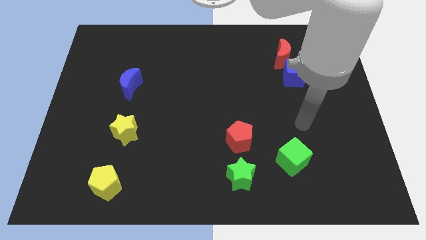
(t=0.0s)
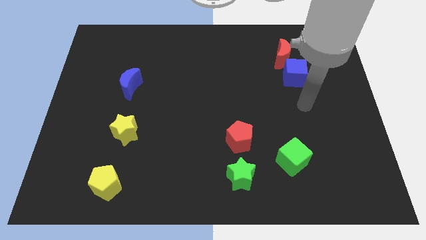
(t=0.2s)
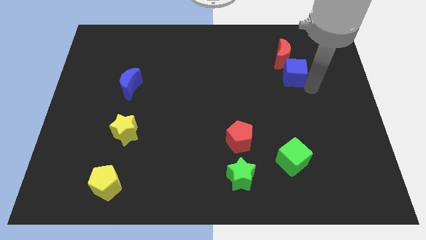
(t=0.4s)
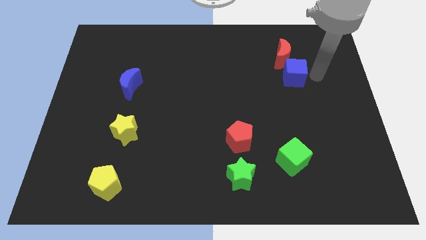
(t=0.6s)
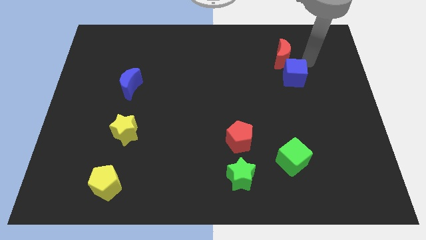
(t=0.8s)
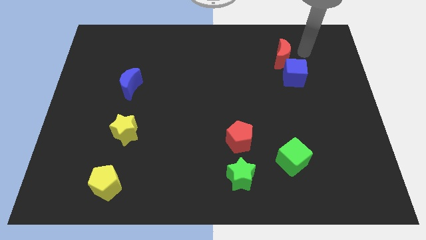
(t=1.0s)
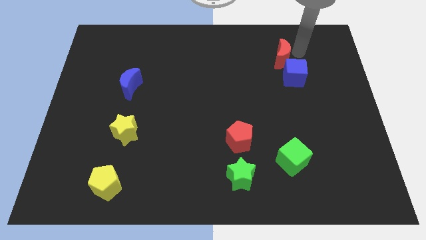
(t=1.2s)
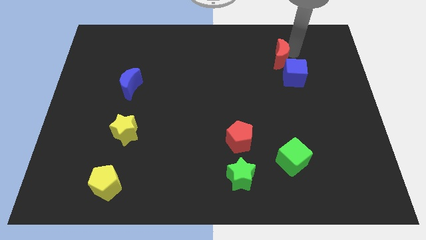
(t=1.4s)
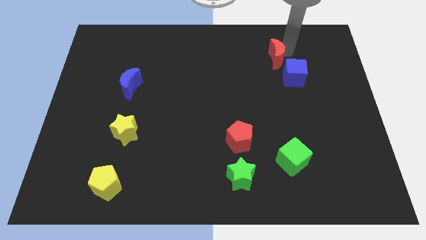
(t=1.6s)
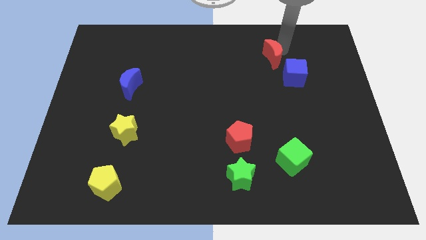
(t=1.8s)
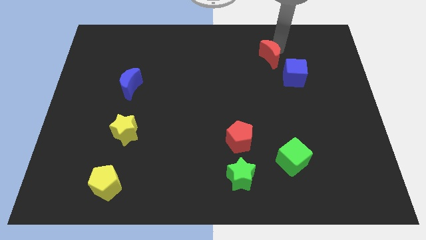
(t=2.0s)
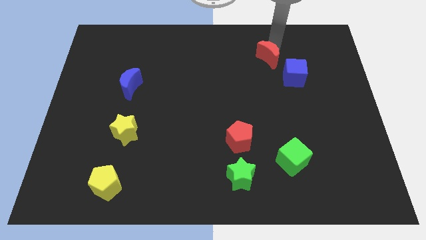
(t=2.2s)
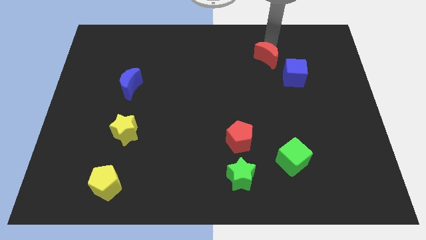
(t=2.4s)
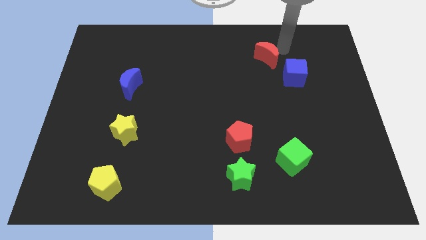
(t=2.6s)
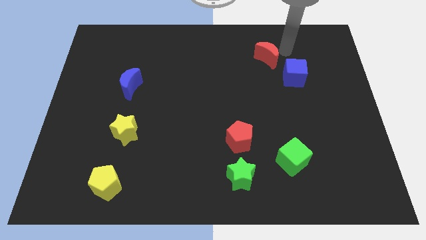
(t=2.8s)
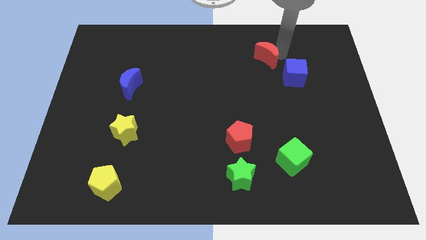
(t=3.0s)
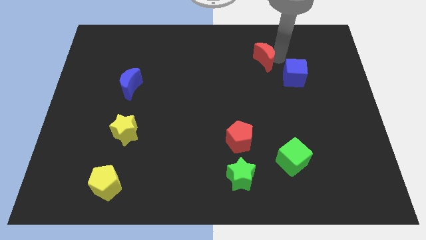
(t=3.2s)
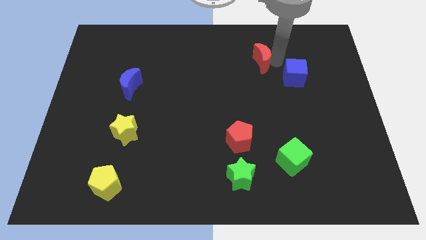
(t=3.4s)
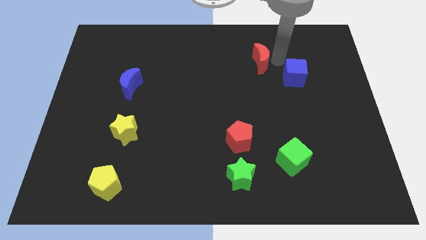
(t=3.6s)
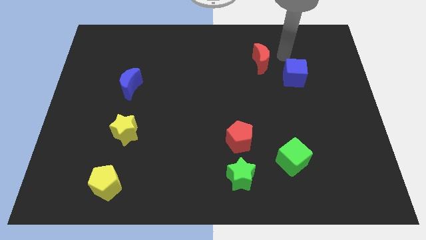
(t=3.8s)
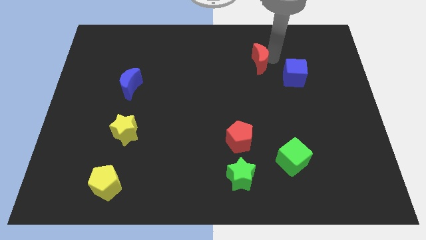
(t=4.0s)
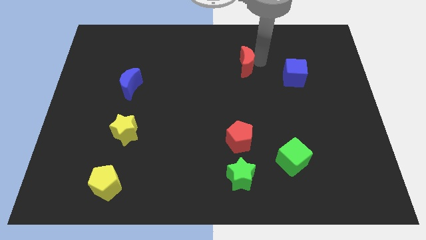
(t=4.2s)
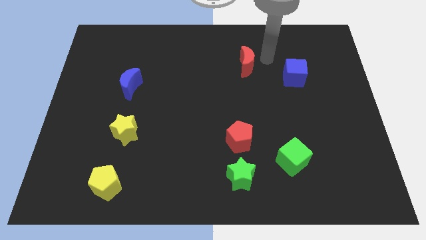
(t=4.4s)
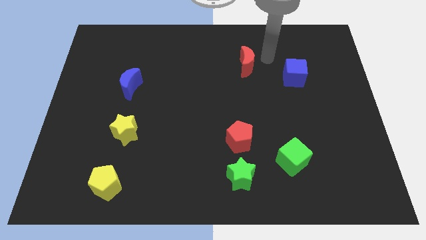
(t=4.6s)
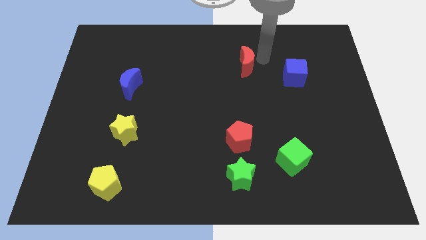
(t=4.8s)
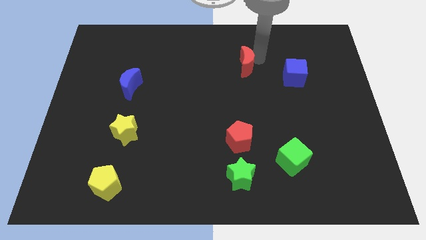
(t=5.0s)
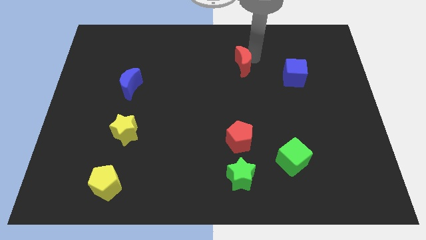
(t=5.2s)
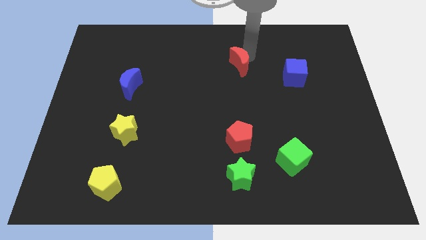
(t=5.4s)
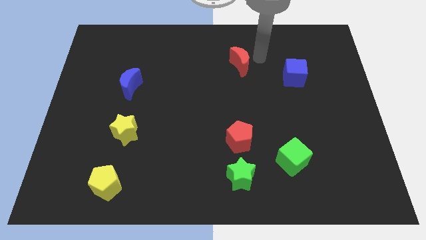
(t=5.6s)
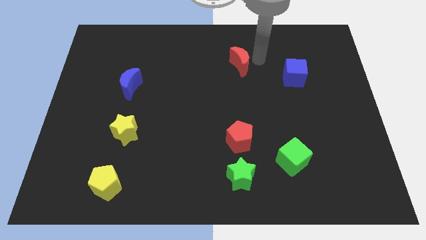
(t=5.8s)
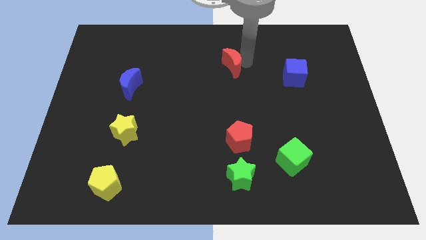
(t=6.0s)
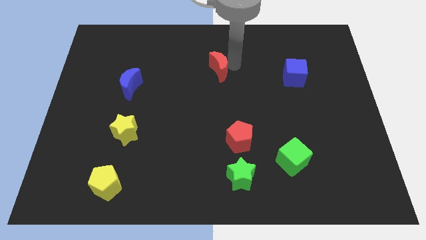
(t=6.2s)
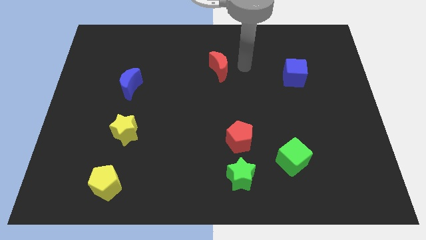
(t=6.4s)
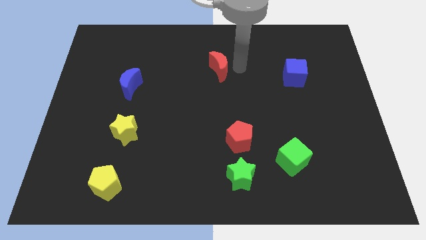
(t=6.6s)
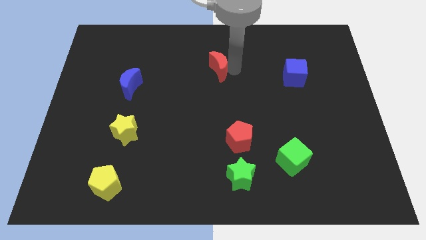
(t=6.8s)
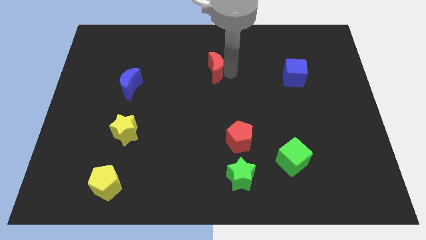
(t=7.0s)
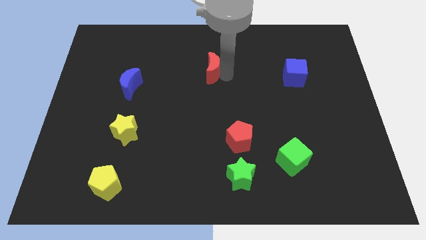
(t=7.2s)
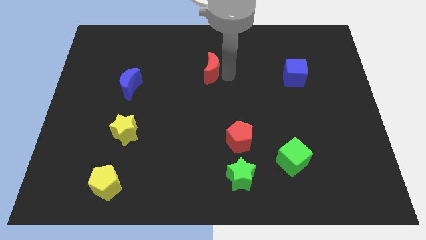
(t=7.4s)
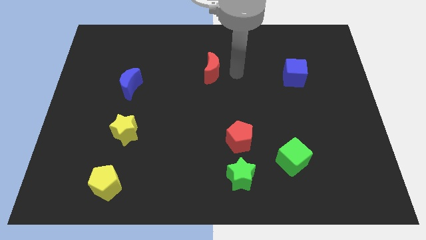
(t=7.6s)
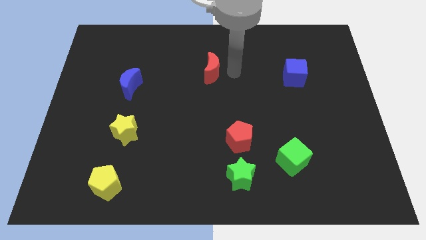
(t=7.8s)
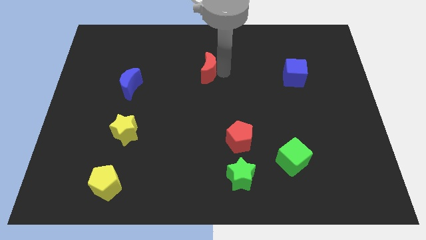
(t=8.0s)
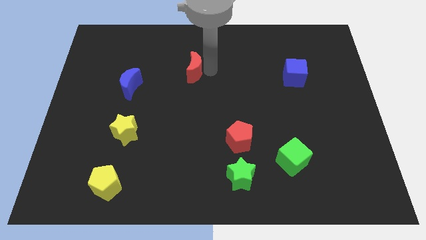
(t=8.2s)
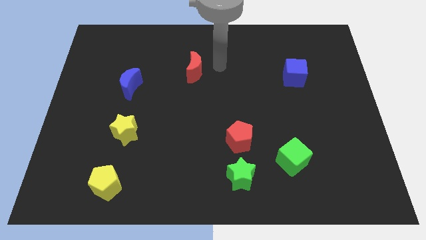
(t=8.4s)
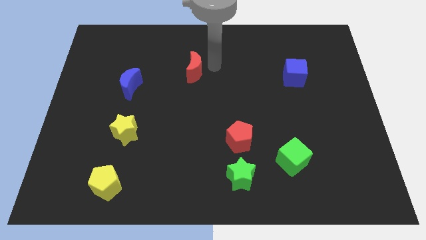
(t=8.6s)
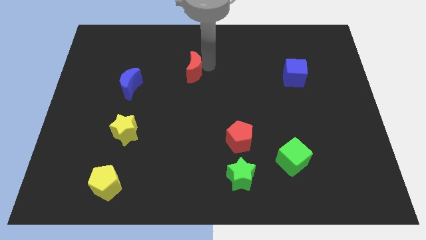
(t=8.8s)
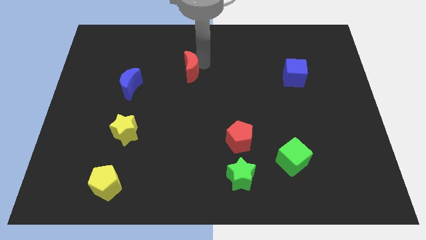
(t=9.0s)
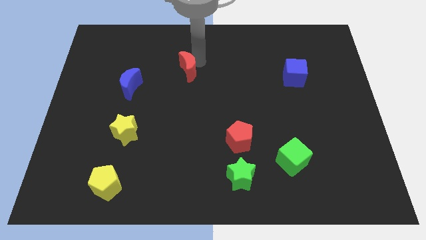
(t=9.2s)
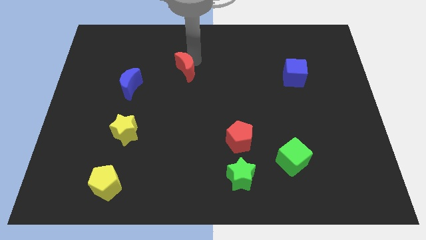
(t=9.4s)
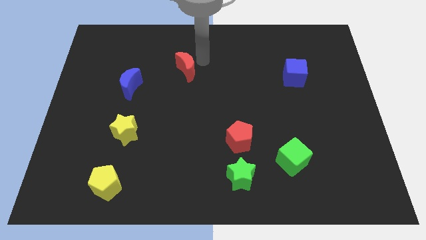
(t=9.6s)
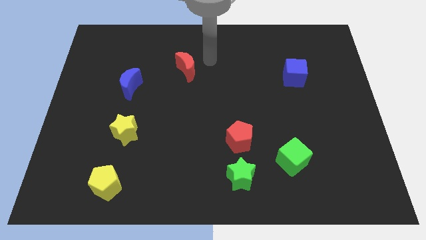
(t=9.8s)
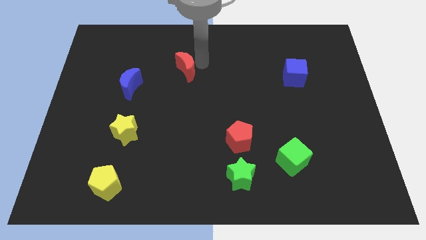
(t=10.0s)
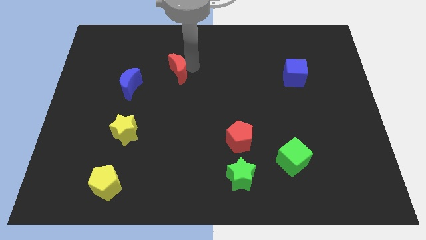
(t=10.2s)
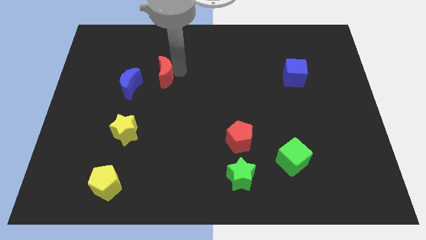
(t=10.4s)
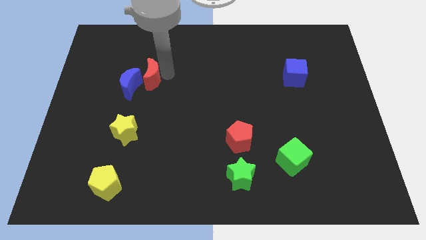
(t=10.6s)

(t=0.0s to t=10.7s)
push the red moon to the blue moon

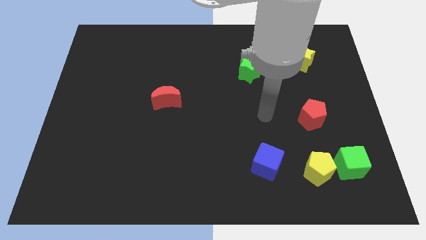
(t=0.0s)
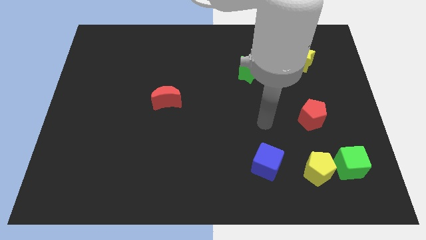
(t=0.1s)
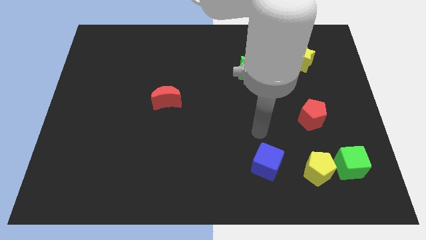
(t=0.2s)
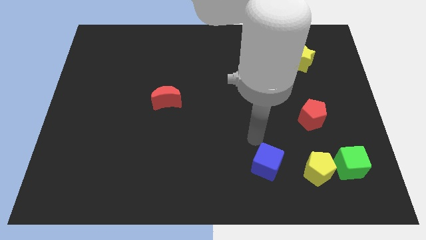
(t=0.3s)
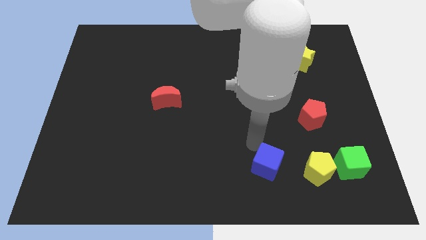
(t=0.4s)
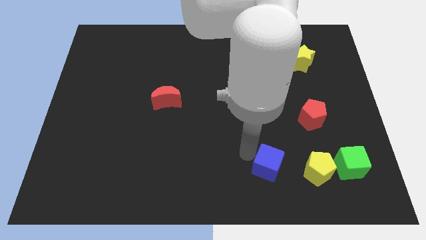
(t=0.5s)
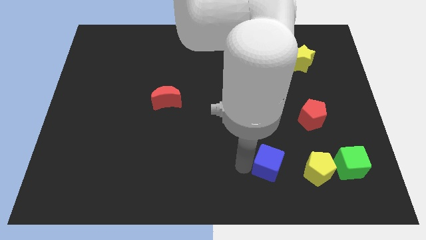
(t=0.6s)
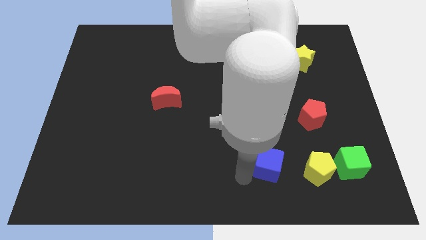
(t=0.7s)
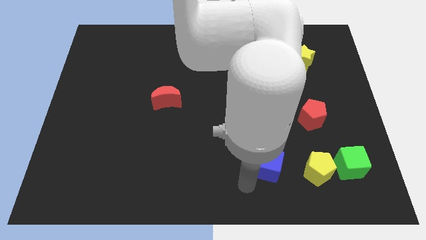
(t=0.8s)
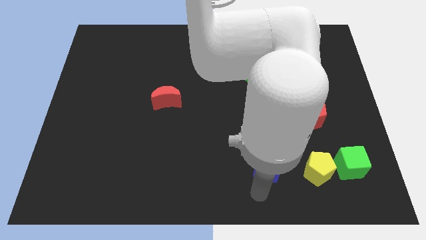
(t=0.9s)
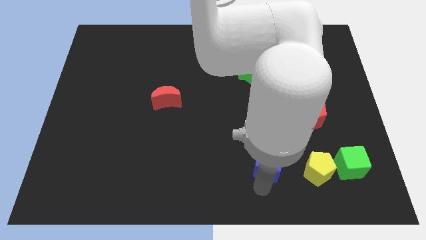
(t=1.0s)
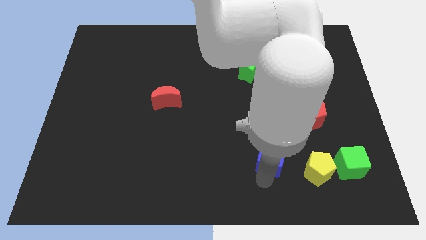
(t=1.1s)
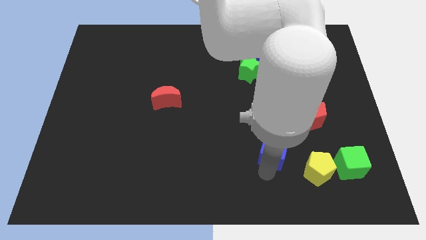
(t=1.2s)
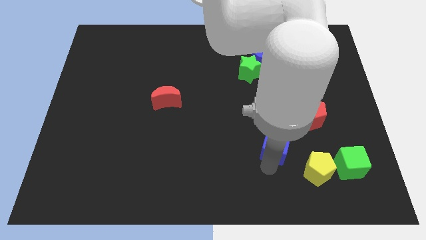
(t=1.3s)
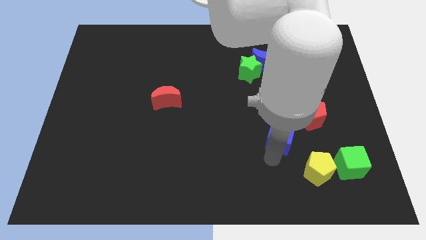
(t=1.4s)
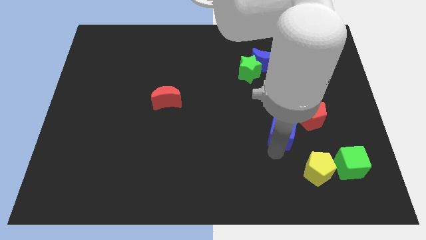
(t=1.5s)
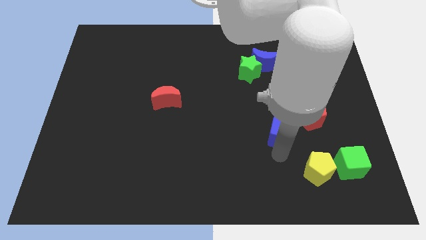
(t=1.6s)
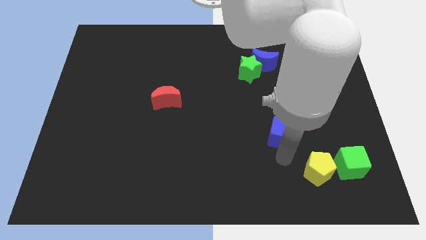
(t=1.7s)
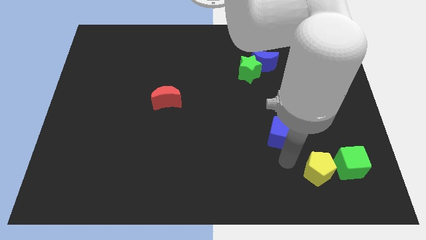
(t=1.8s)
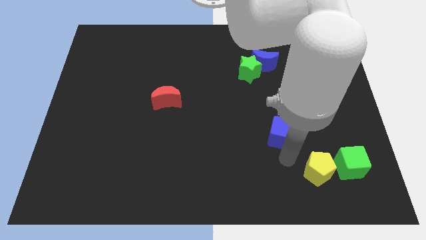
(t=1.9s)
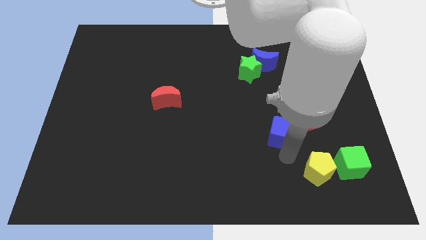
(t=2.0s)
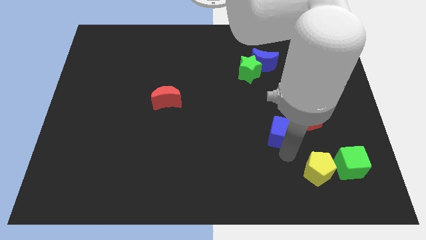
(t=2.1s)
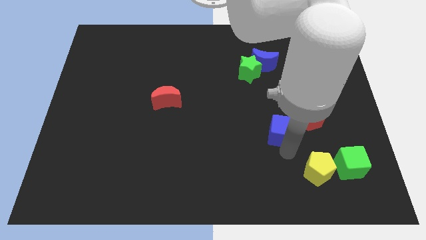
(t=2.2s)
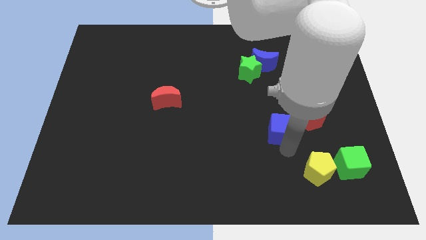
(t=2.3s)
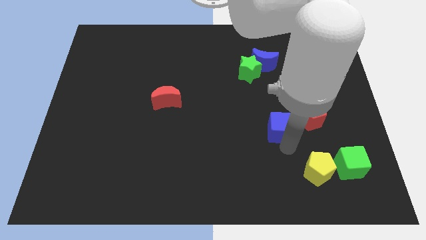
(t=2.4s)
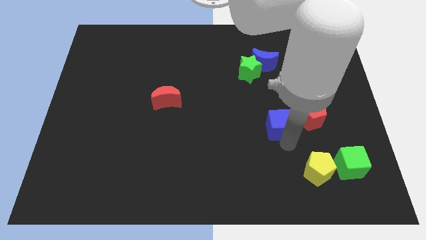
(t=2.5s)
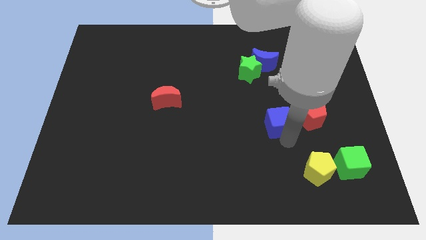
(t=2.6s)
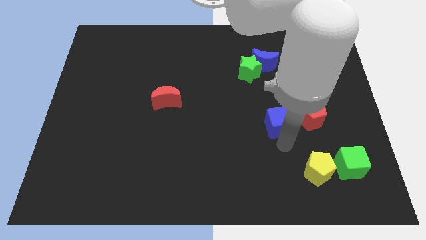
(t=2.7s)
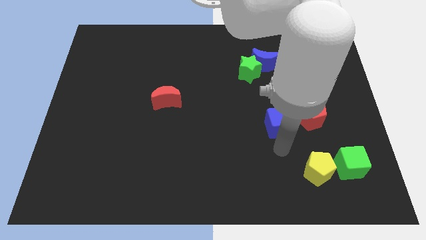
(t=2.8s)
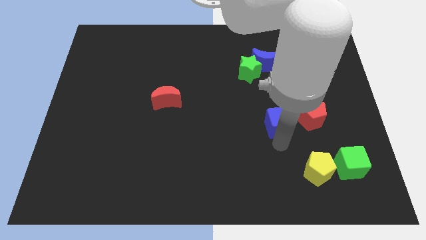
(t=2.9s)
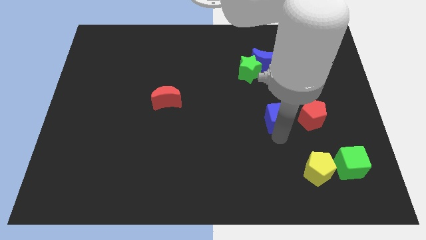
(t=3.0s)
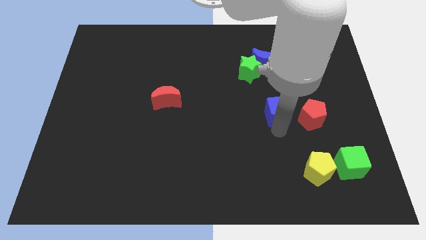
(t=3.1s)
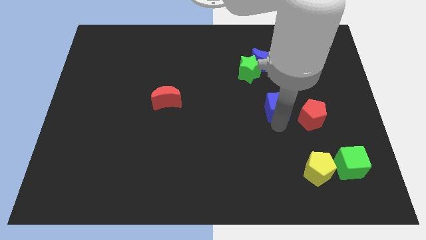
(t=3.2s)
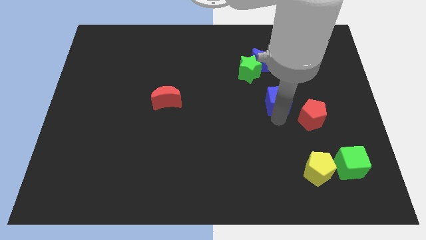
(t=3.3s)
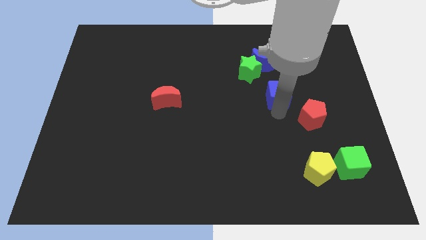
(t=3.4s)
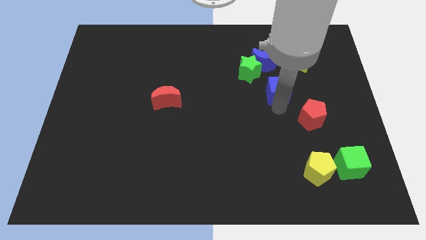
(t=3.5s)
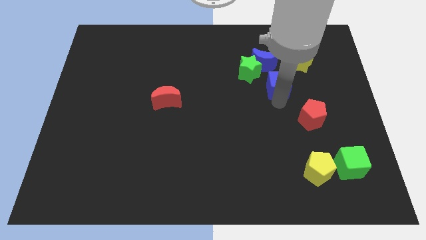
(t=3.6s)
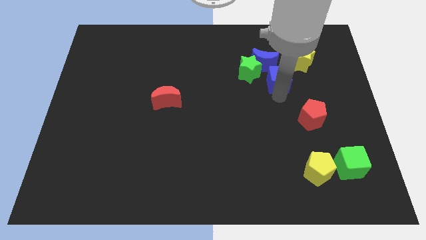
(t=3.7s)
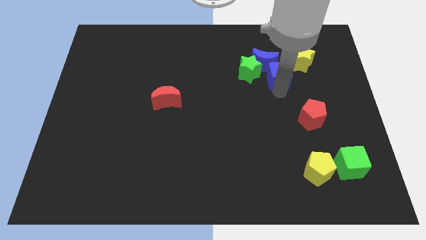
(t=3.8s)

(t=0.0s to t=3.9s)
push the blue cube to the blue moon
